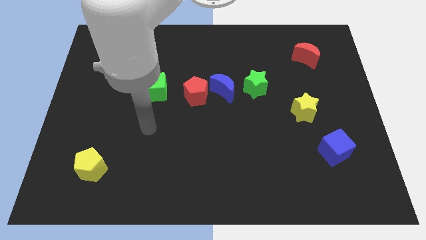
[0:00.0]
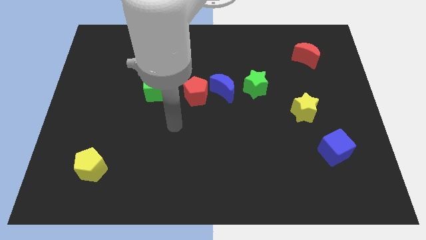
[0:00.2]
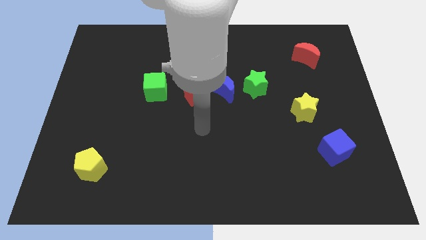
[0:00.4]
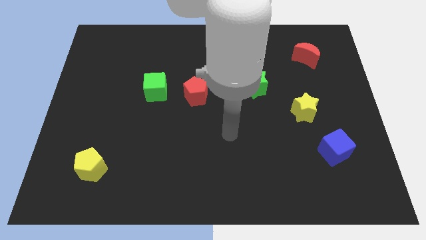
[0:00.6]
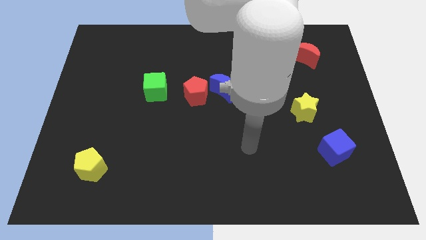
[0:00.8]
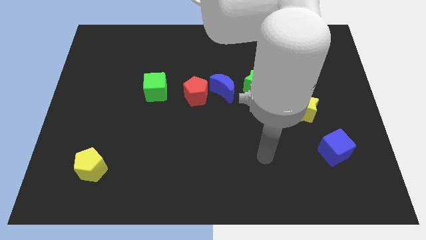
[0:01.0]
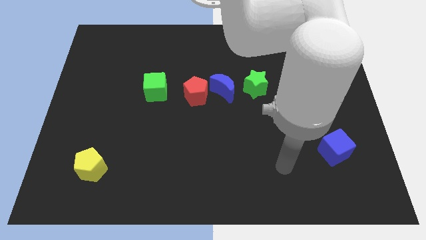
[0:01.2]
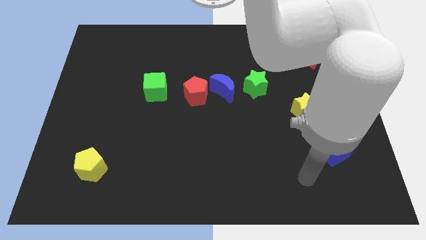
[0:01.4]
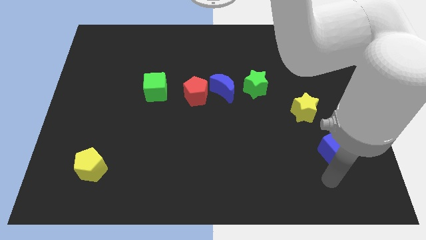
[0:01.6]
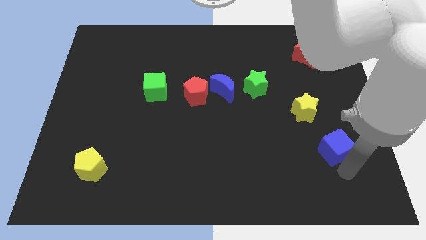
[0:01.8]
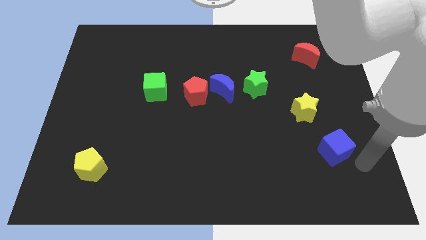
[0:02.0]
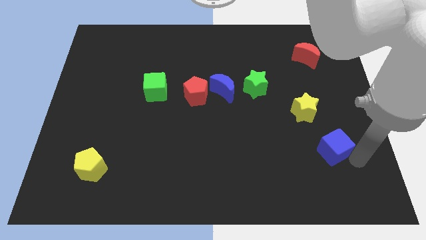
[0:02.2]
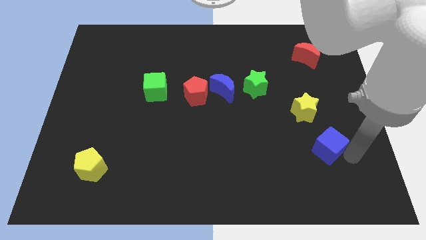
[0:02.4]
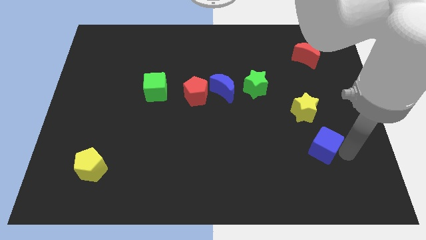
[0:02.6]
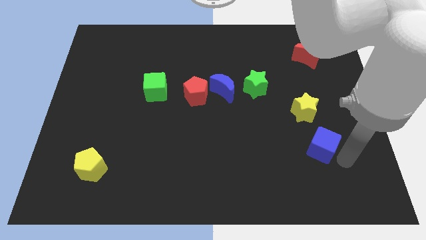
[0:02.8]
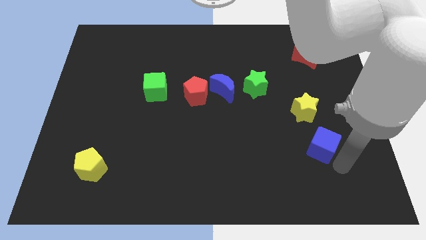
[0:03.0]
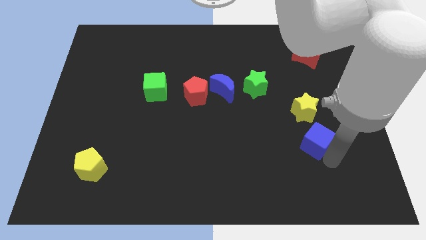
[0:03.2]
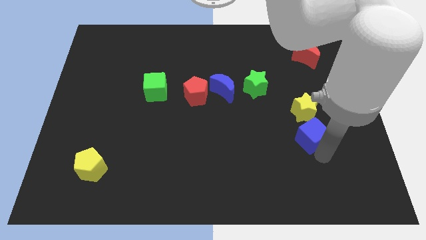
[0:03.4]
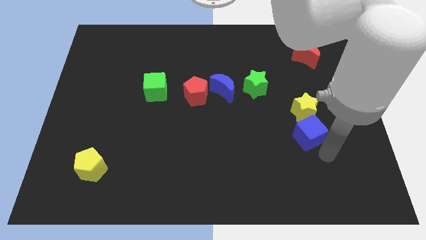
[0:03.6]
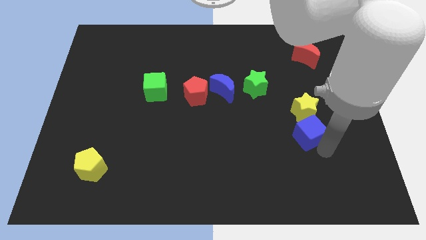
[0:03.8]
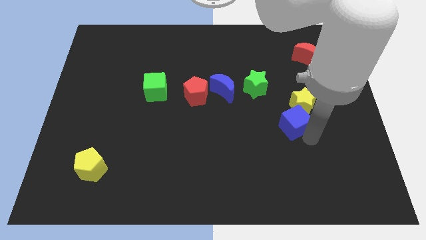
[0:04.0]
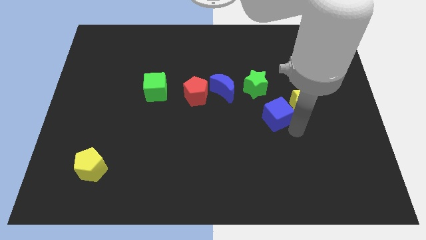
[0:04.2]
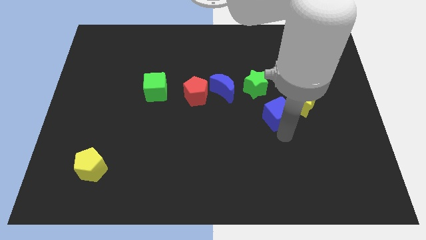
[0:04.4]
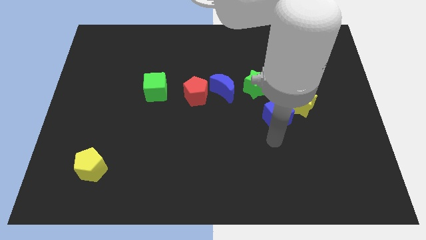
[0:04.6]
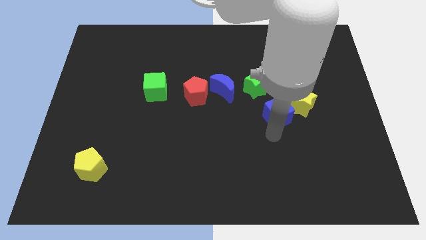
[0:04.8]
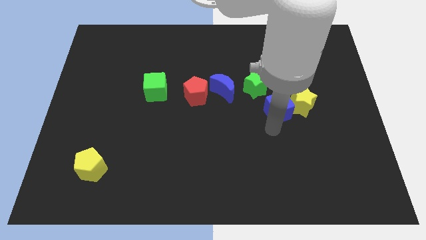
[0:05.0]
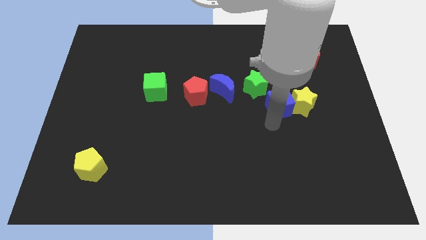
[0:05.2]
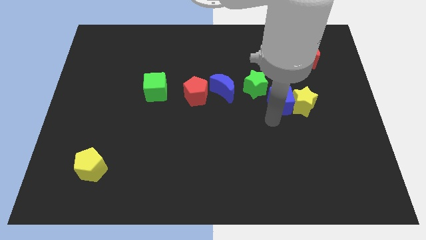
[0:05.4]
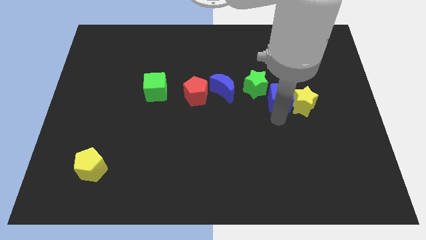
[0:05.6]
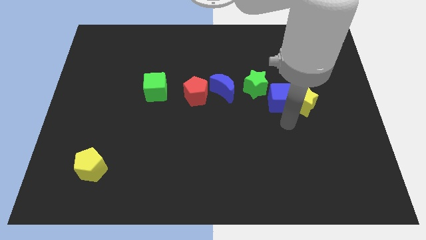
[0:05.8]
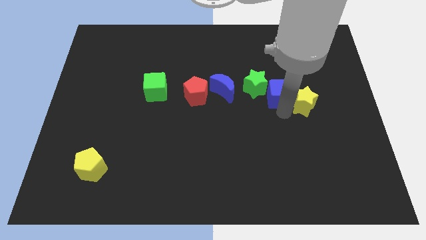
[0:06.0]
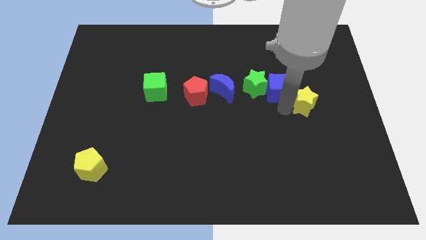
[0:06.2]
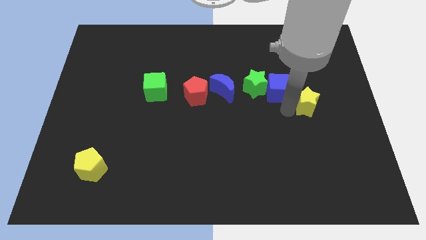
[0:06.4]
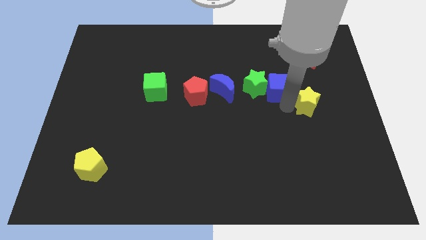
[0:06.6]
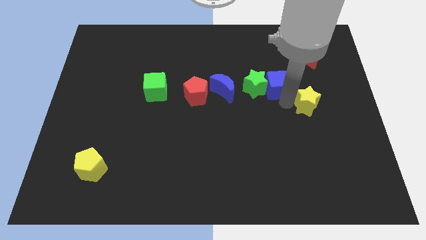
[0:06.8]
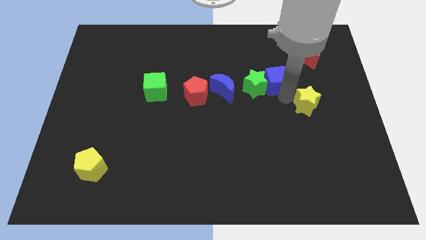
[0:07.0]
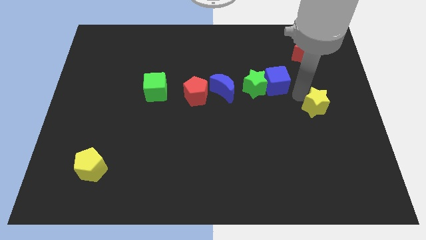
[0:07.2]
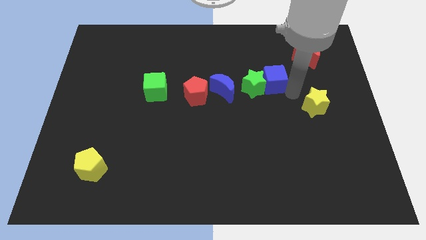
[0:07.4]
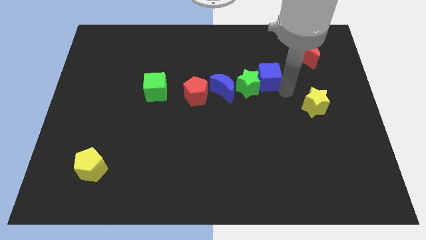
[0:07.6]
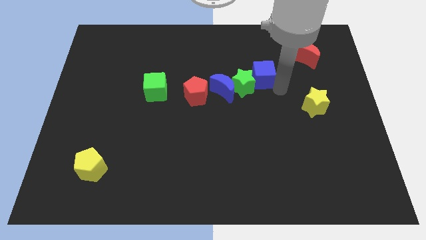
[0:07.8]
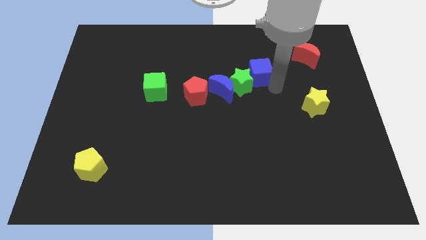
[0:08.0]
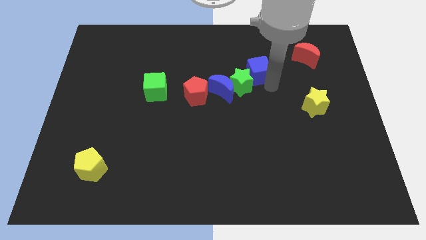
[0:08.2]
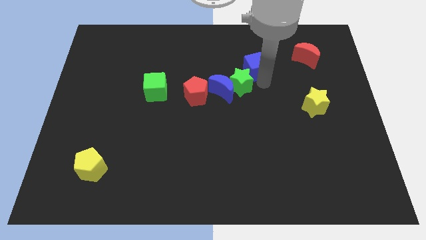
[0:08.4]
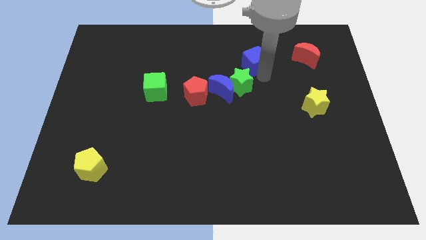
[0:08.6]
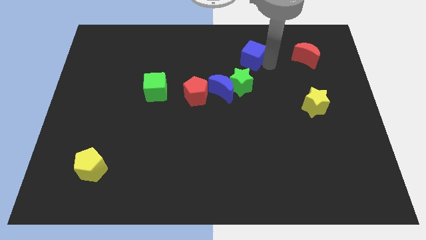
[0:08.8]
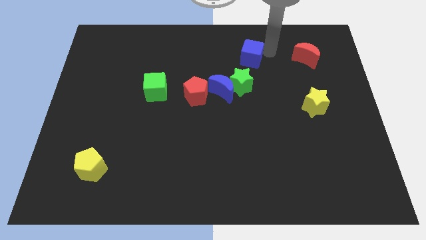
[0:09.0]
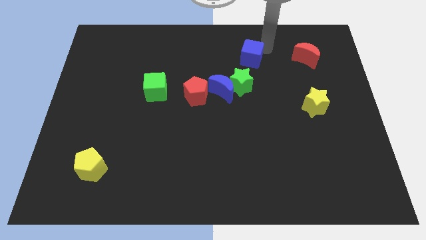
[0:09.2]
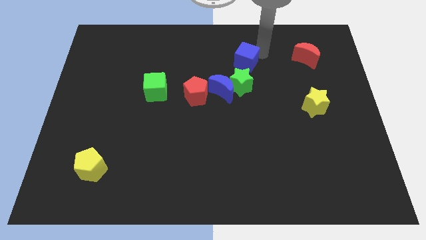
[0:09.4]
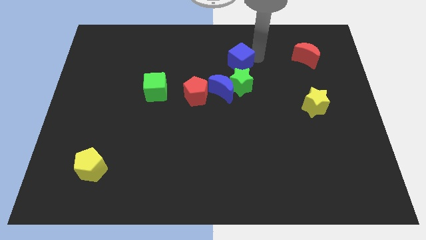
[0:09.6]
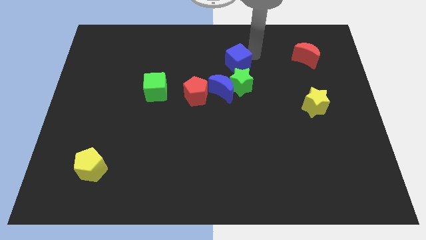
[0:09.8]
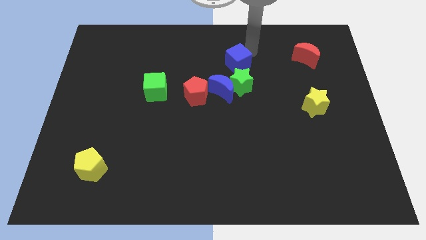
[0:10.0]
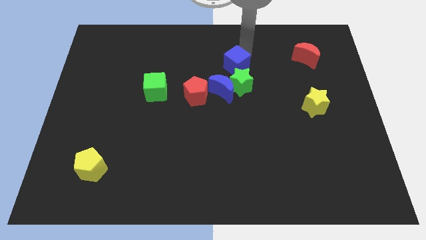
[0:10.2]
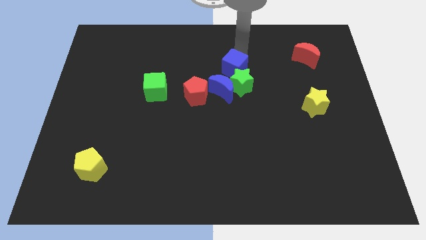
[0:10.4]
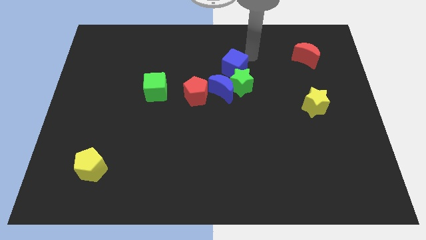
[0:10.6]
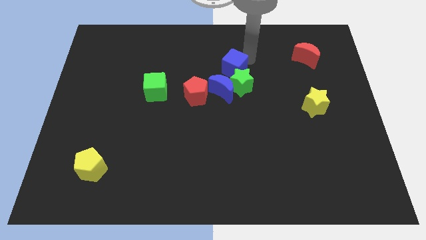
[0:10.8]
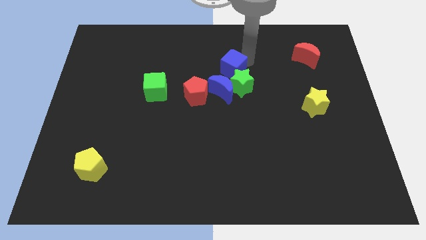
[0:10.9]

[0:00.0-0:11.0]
move the blue cube diagonally up and to the right of the red pentagon

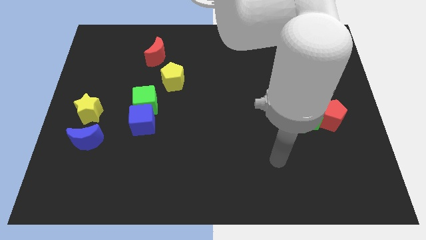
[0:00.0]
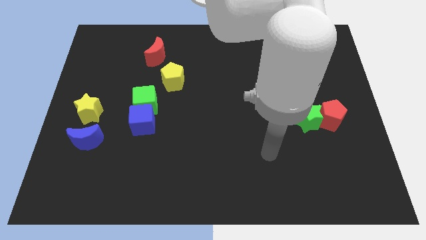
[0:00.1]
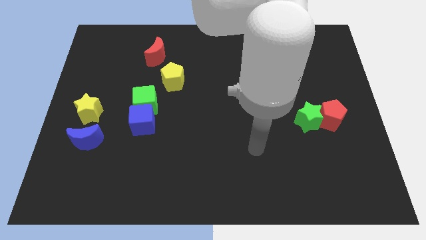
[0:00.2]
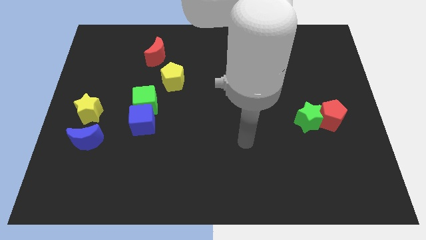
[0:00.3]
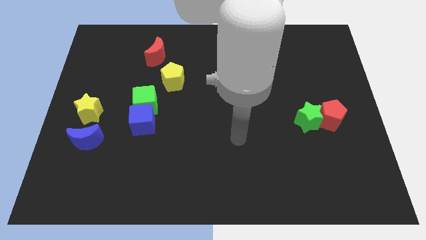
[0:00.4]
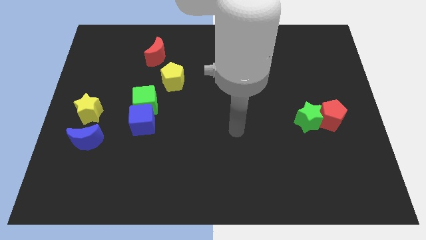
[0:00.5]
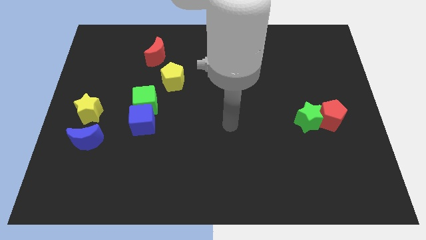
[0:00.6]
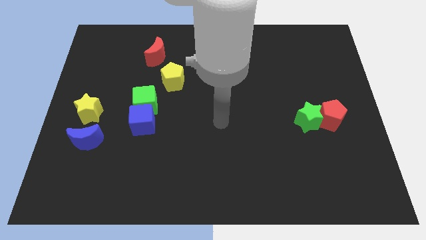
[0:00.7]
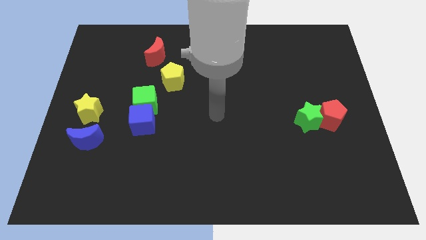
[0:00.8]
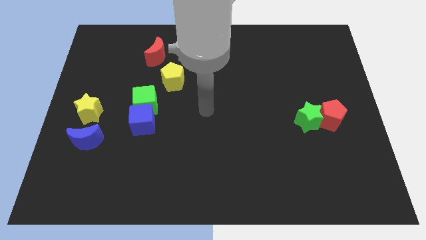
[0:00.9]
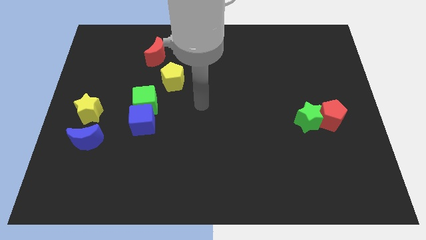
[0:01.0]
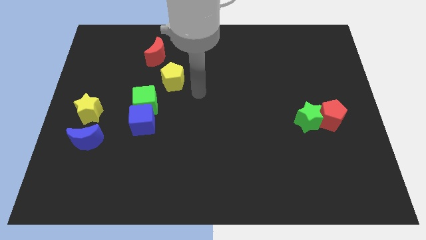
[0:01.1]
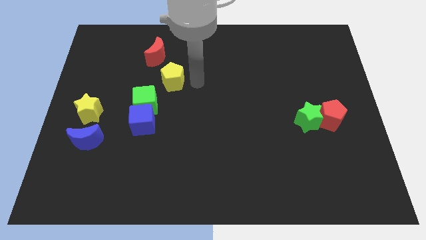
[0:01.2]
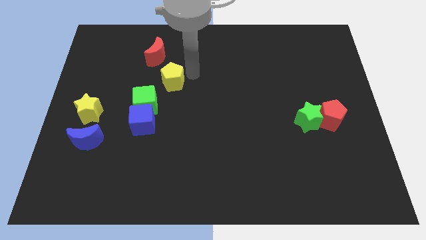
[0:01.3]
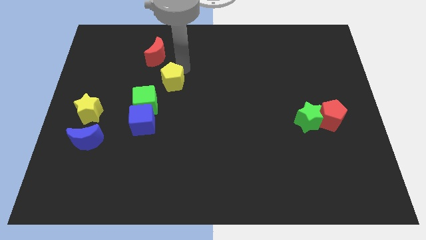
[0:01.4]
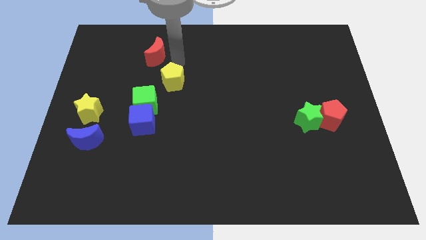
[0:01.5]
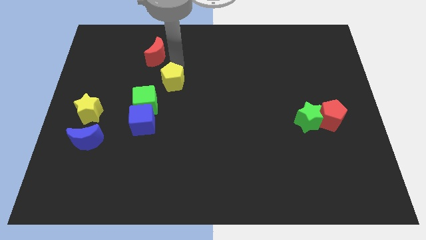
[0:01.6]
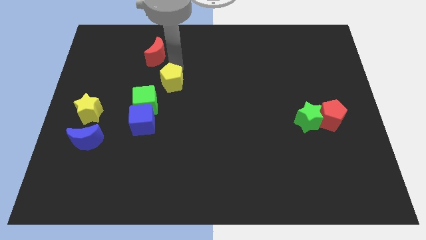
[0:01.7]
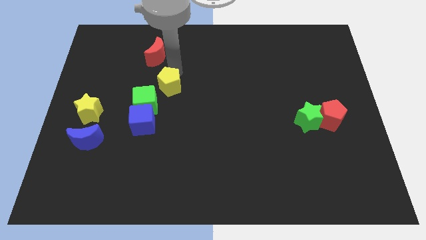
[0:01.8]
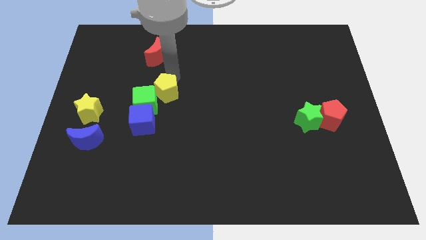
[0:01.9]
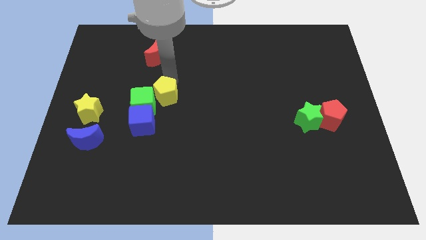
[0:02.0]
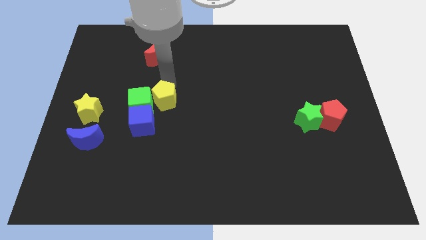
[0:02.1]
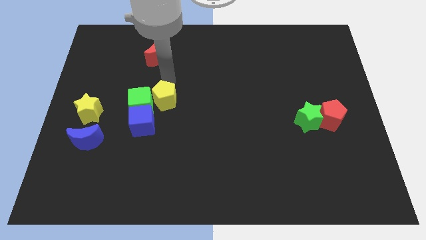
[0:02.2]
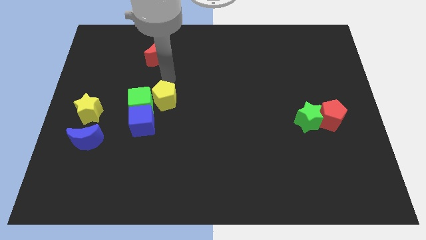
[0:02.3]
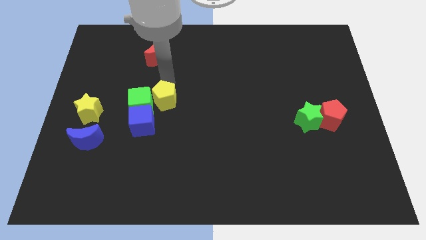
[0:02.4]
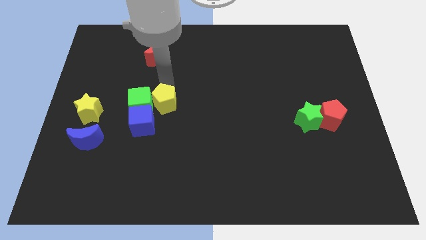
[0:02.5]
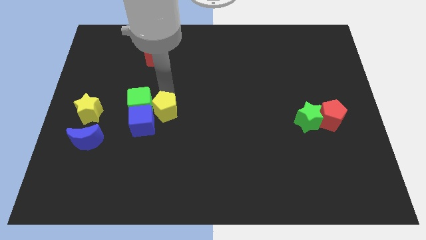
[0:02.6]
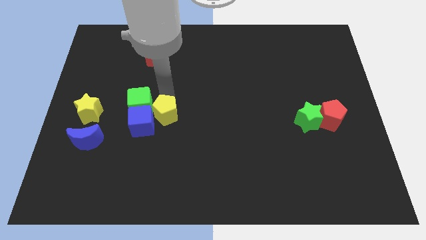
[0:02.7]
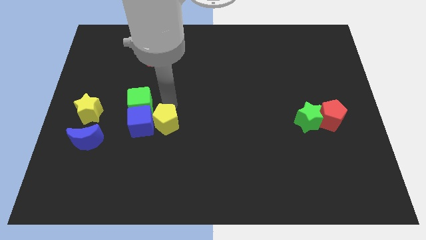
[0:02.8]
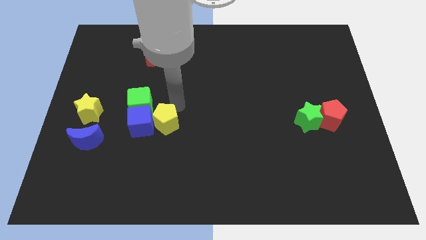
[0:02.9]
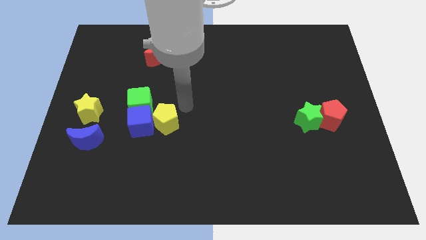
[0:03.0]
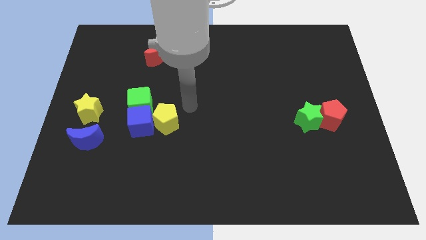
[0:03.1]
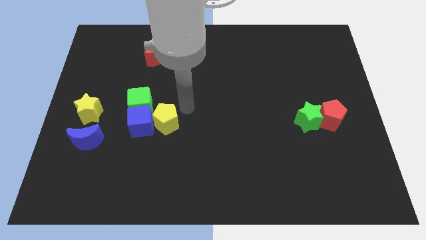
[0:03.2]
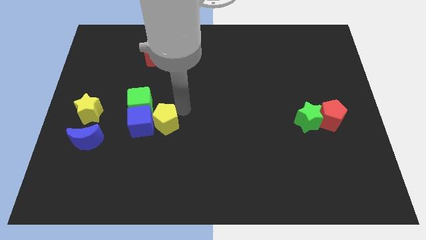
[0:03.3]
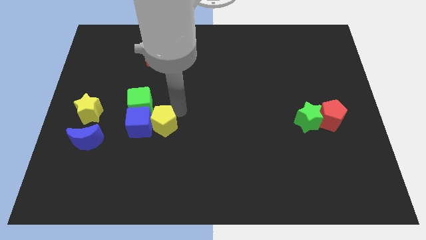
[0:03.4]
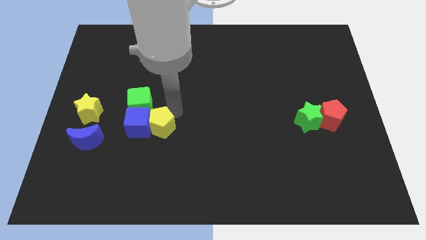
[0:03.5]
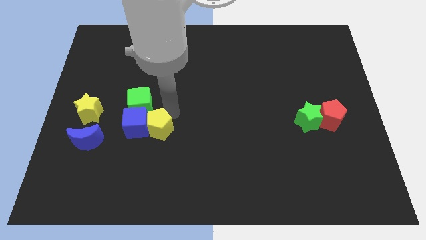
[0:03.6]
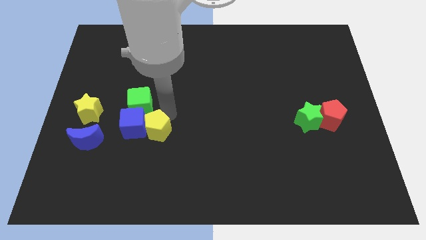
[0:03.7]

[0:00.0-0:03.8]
slide the yellow pentagon to the bottom side of the green cube
